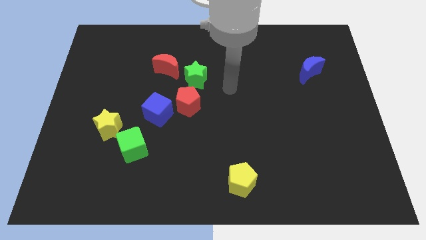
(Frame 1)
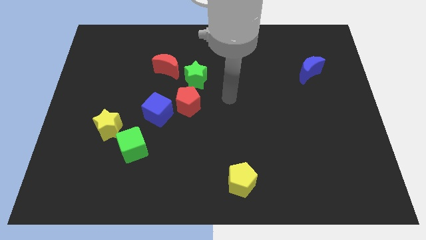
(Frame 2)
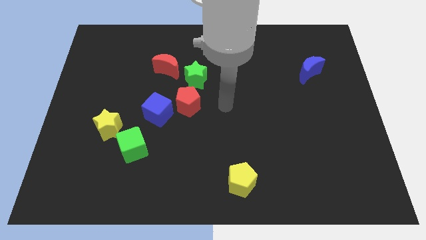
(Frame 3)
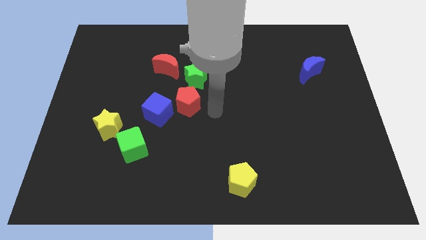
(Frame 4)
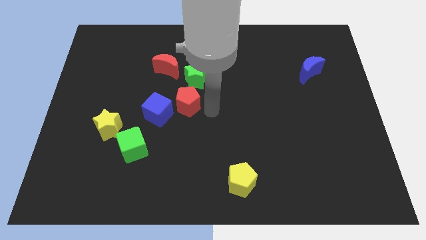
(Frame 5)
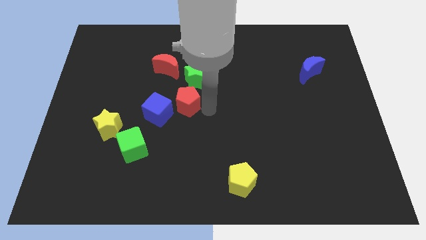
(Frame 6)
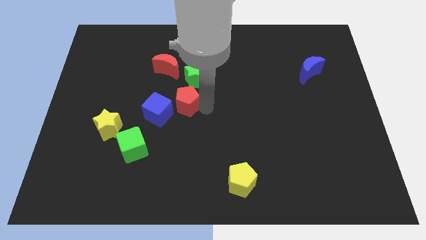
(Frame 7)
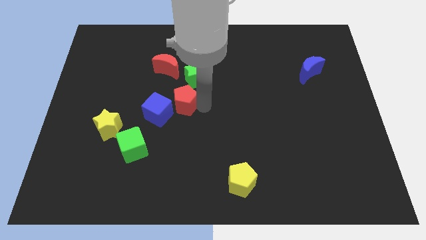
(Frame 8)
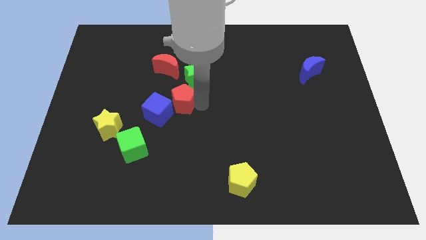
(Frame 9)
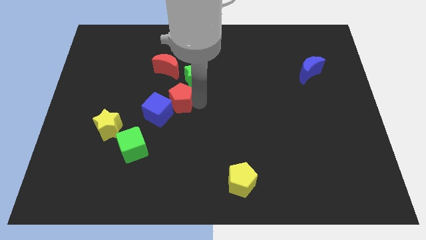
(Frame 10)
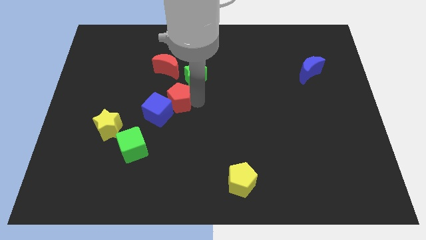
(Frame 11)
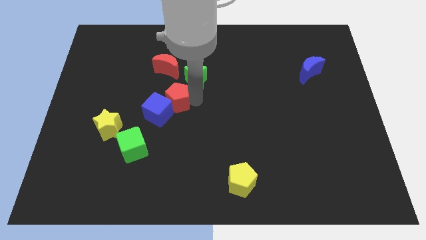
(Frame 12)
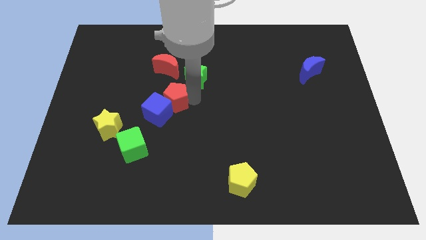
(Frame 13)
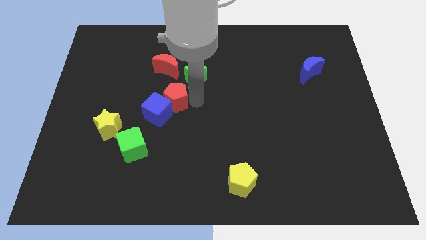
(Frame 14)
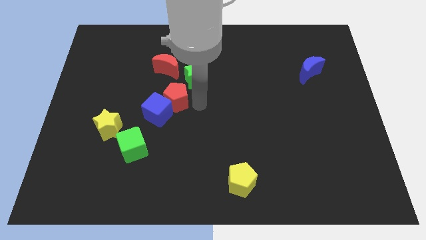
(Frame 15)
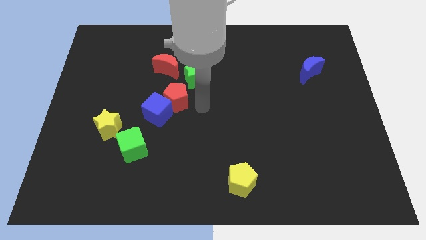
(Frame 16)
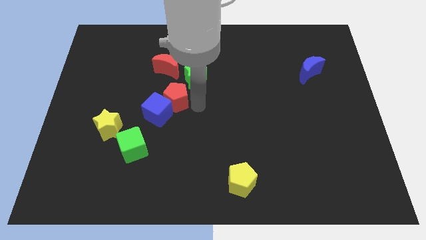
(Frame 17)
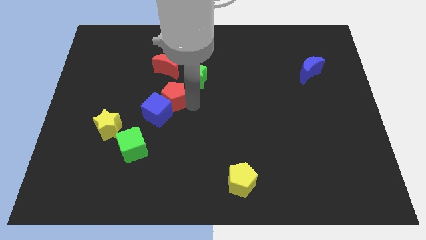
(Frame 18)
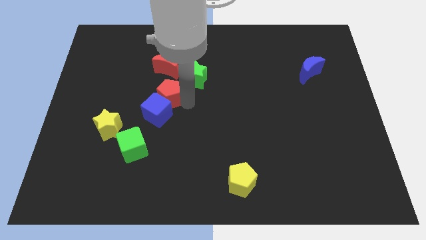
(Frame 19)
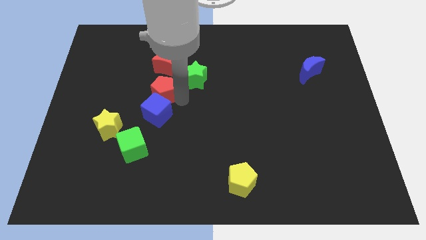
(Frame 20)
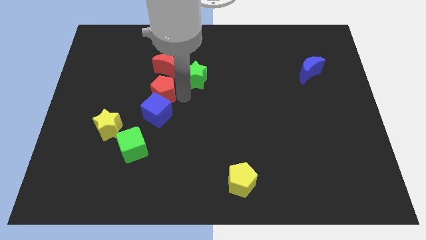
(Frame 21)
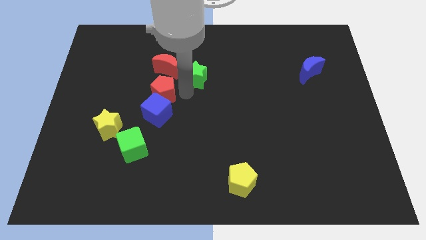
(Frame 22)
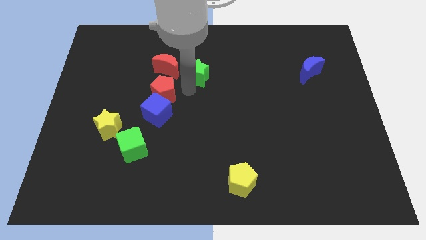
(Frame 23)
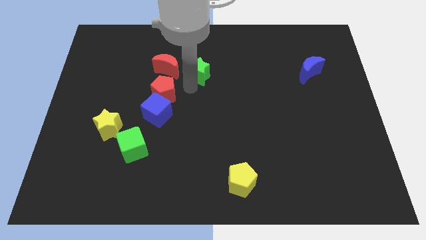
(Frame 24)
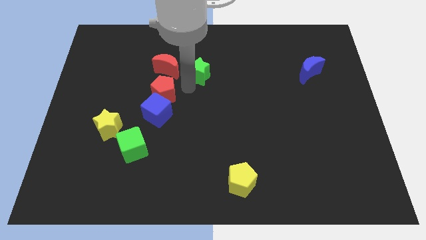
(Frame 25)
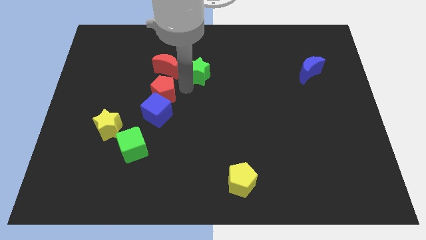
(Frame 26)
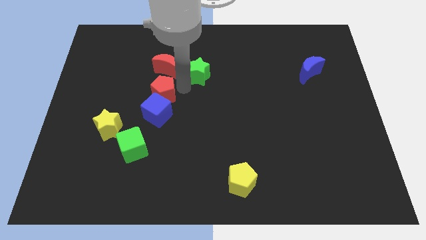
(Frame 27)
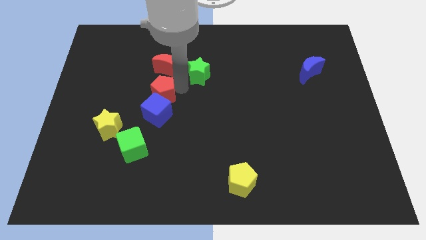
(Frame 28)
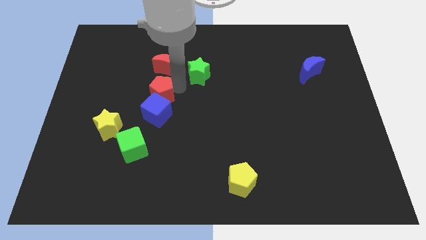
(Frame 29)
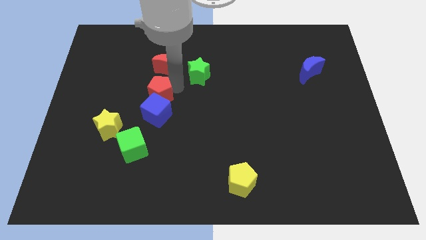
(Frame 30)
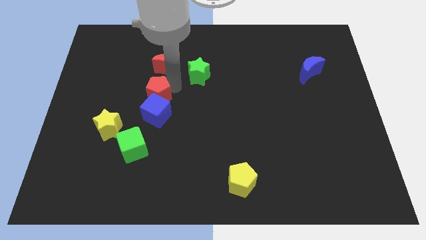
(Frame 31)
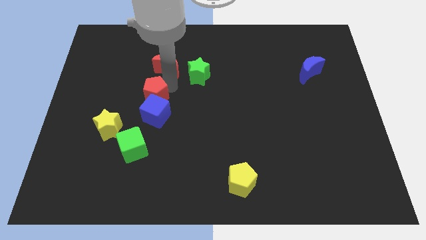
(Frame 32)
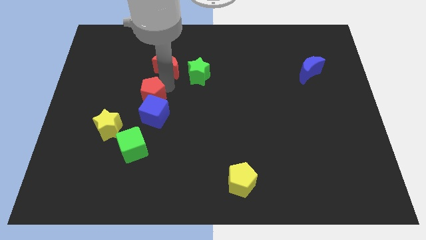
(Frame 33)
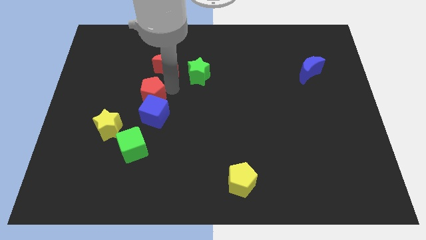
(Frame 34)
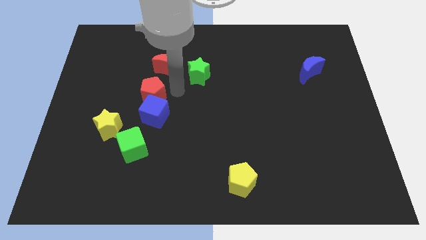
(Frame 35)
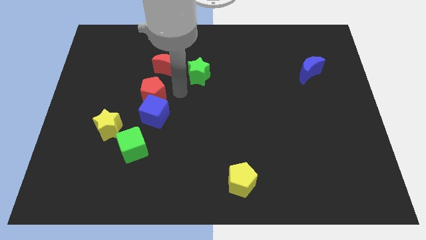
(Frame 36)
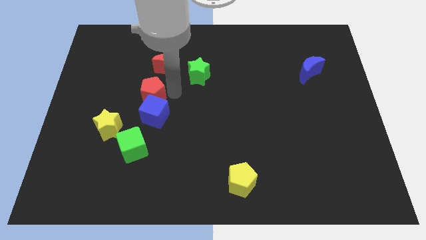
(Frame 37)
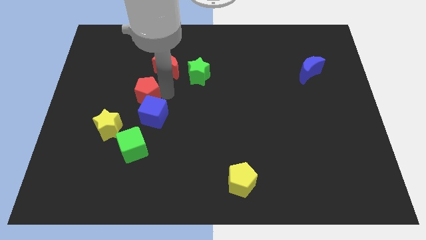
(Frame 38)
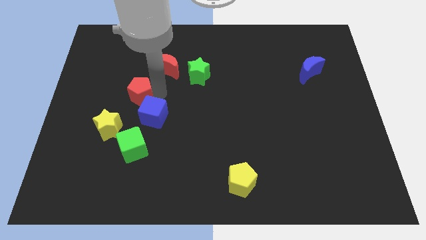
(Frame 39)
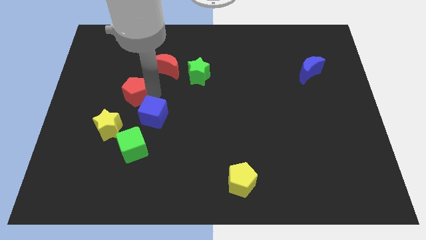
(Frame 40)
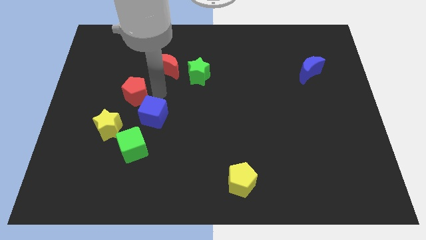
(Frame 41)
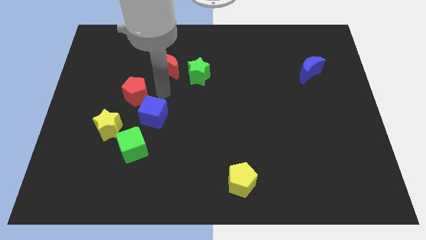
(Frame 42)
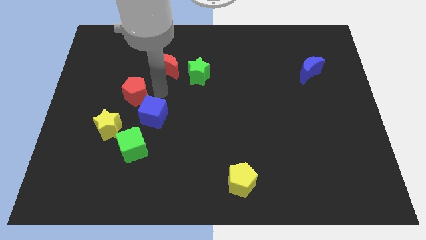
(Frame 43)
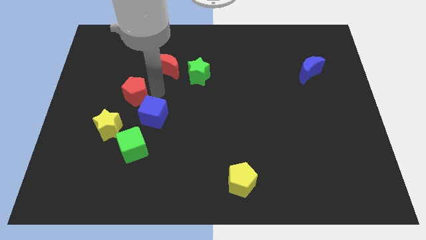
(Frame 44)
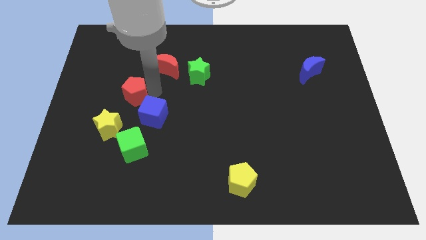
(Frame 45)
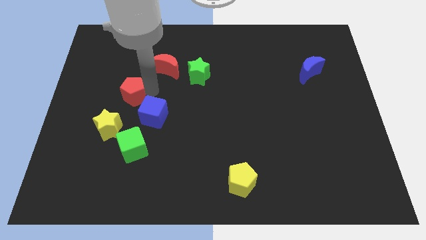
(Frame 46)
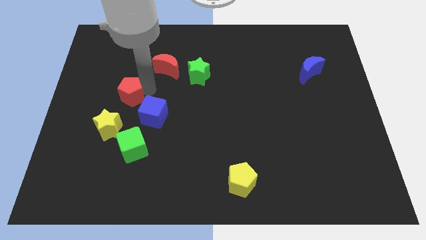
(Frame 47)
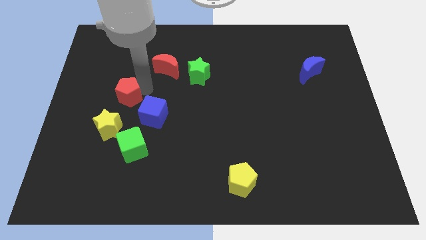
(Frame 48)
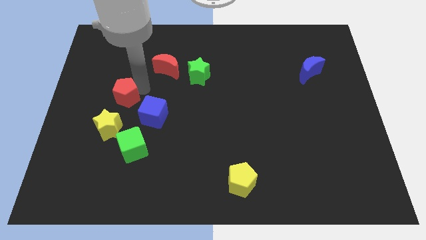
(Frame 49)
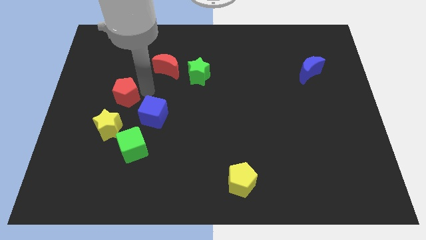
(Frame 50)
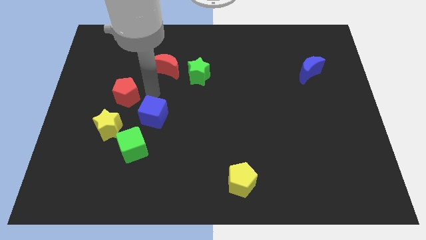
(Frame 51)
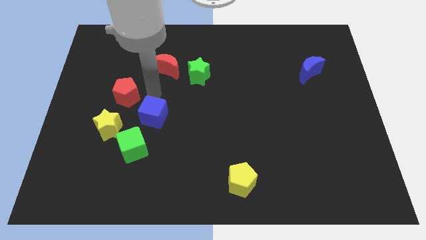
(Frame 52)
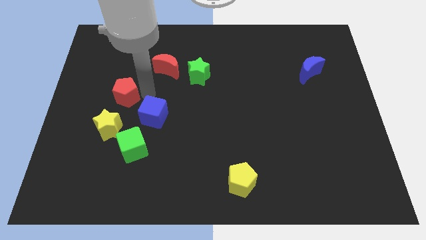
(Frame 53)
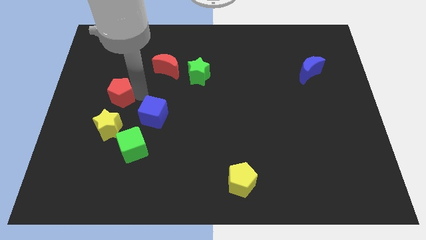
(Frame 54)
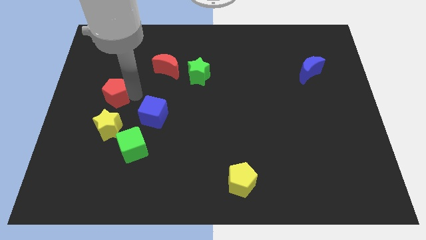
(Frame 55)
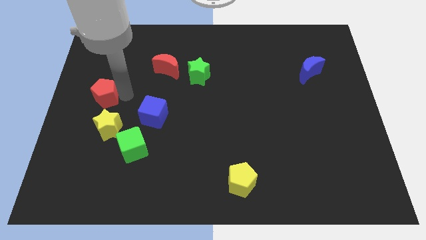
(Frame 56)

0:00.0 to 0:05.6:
move the red pentagon to the left side

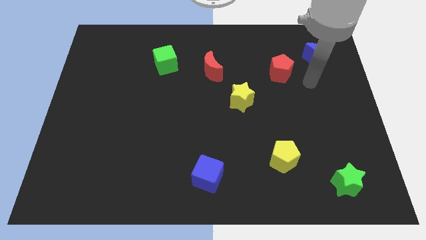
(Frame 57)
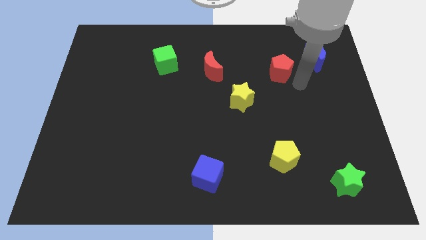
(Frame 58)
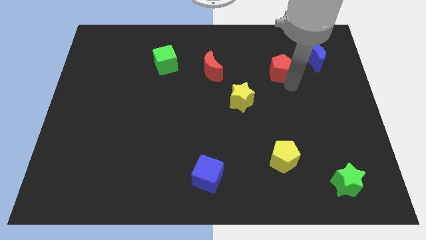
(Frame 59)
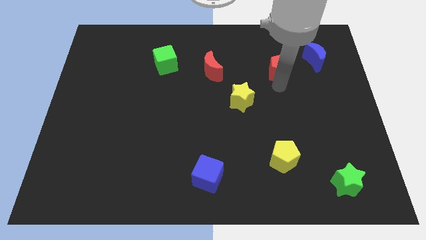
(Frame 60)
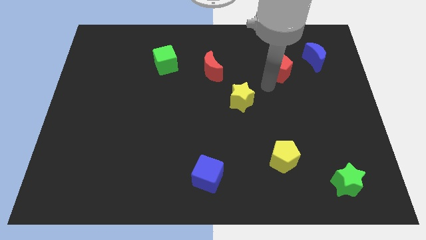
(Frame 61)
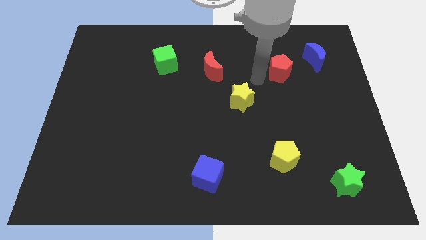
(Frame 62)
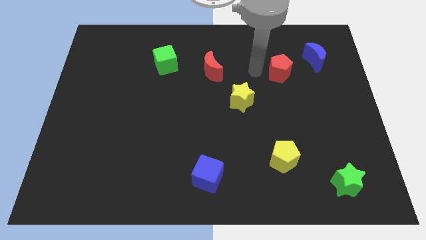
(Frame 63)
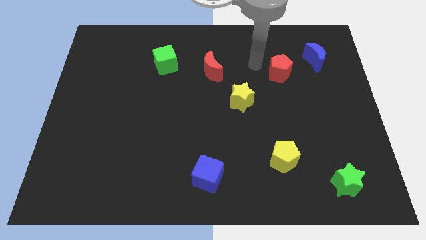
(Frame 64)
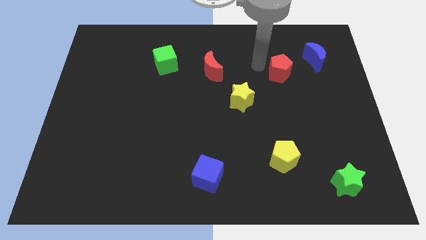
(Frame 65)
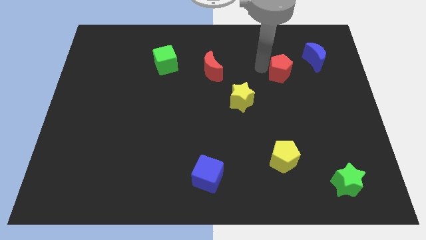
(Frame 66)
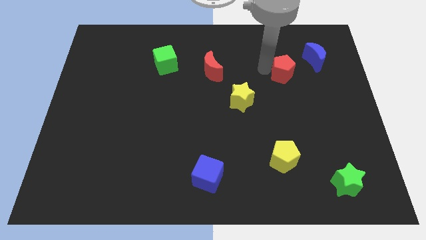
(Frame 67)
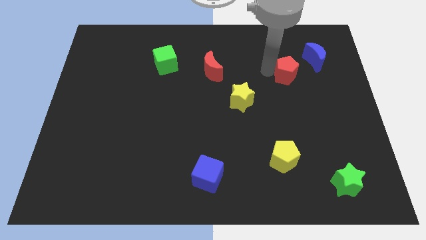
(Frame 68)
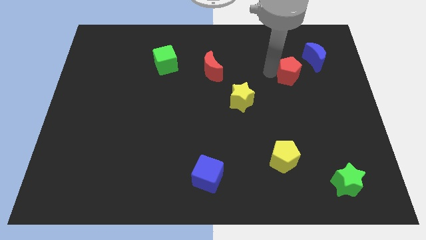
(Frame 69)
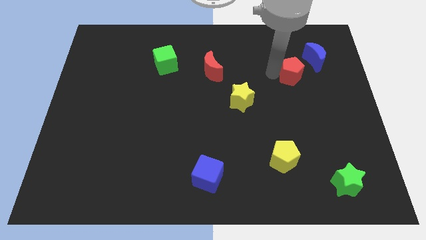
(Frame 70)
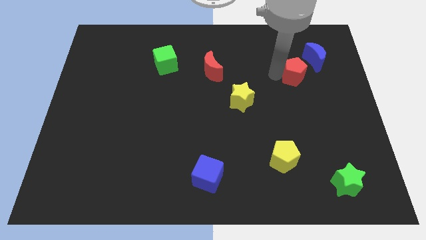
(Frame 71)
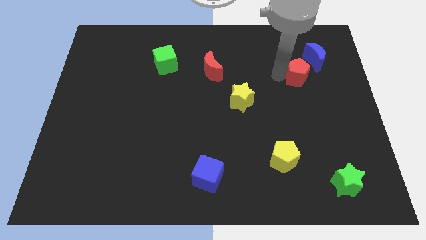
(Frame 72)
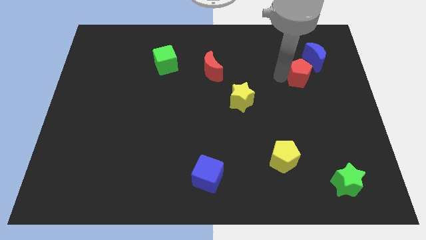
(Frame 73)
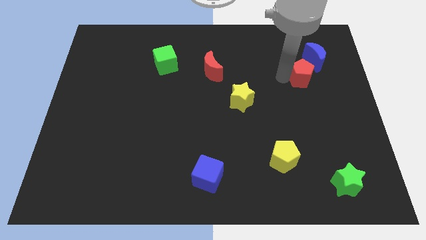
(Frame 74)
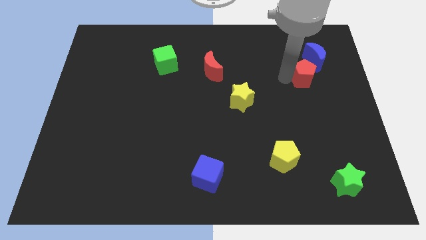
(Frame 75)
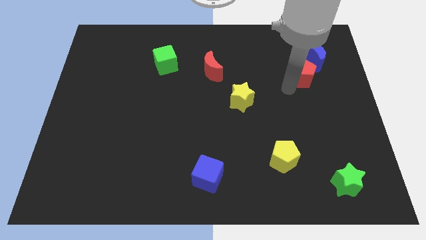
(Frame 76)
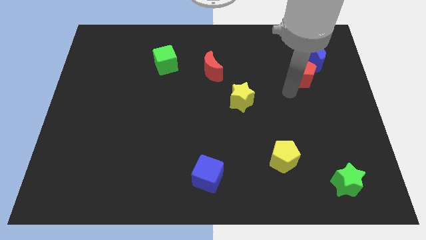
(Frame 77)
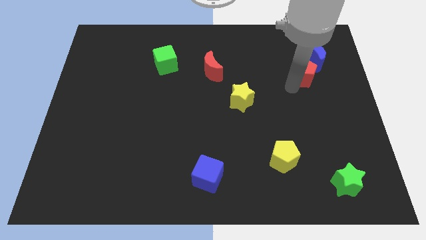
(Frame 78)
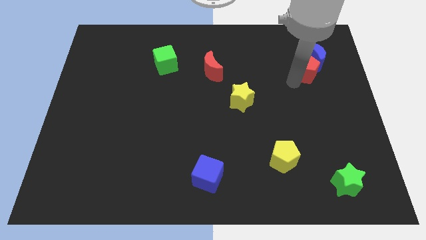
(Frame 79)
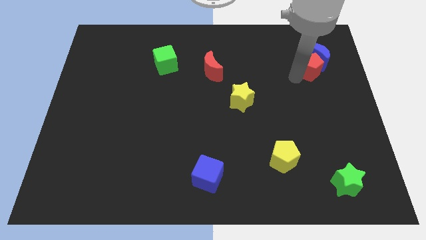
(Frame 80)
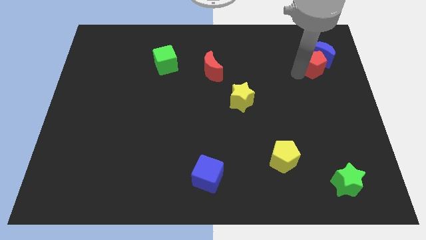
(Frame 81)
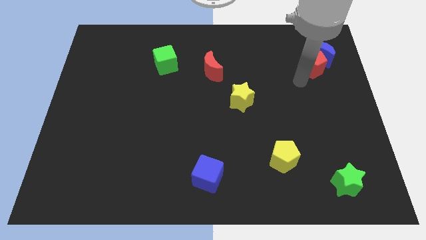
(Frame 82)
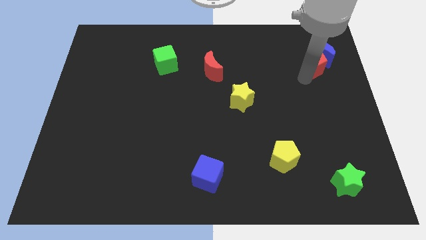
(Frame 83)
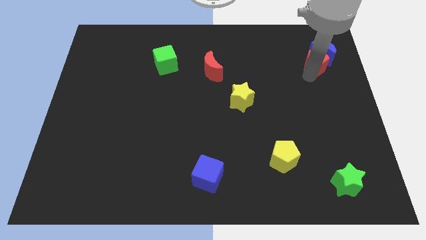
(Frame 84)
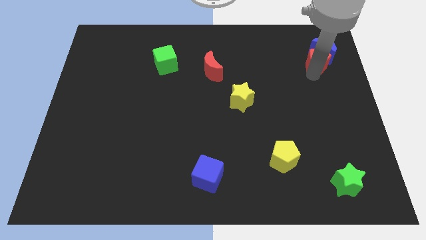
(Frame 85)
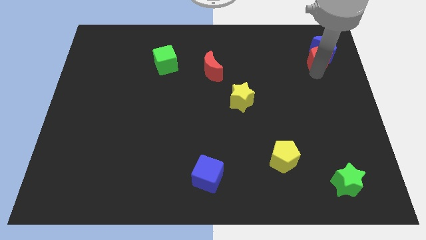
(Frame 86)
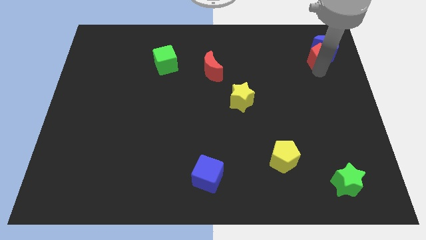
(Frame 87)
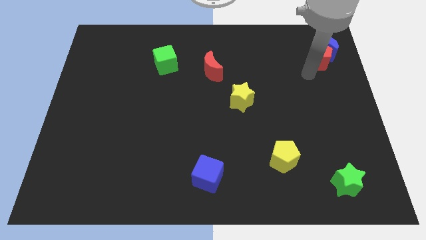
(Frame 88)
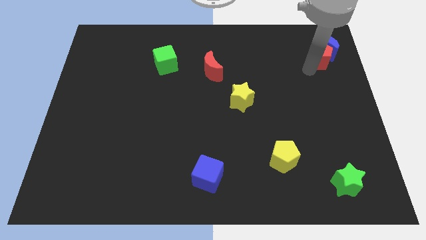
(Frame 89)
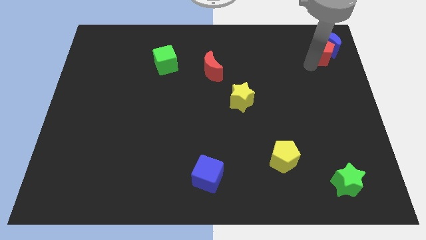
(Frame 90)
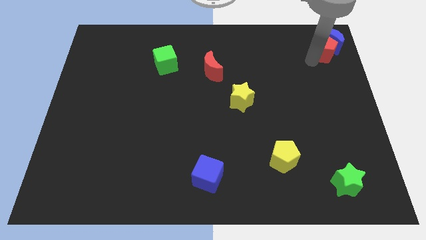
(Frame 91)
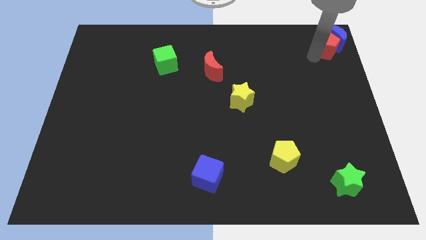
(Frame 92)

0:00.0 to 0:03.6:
put the red pentagon to the top right
